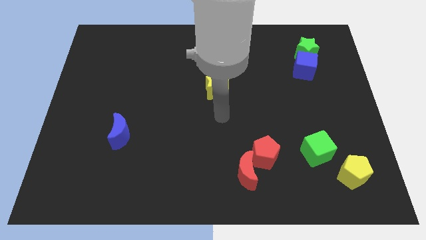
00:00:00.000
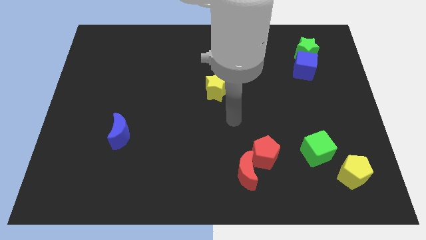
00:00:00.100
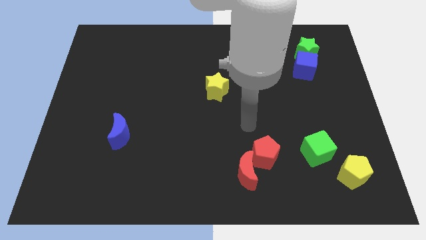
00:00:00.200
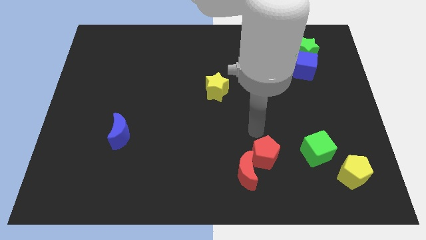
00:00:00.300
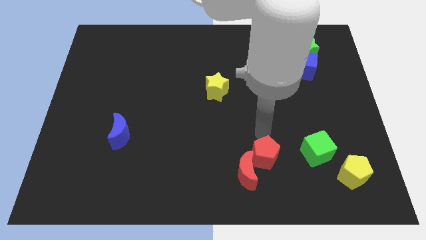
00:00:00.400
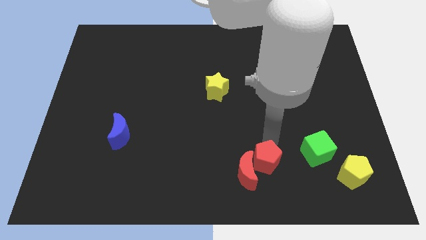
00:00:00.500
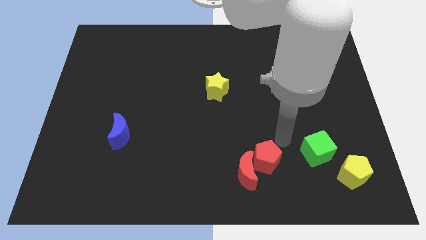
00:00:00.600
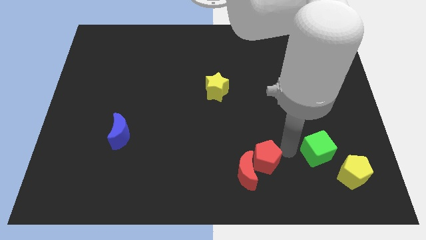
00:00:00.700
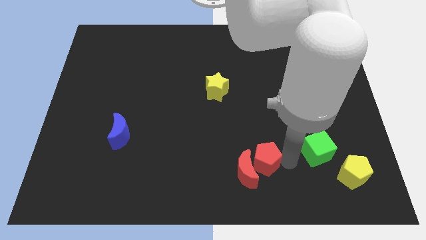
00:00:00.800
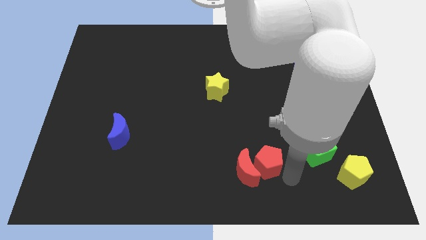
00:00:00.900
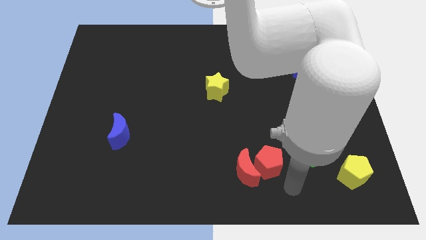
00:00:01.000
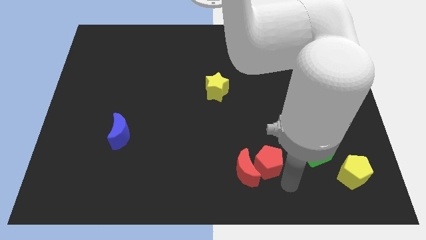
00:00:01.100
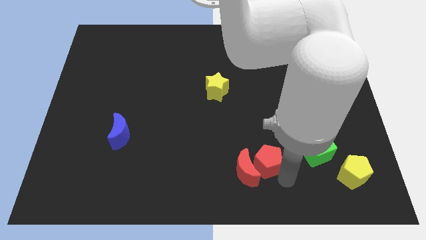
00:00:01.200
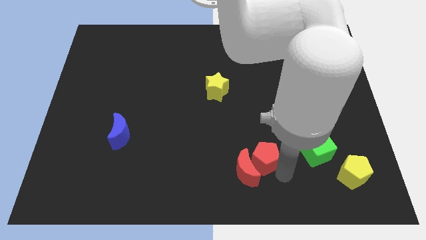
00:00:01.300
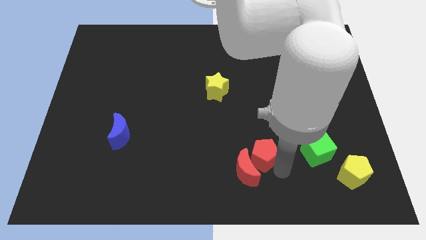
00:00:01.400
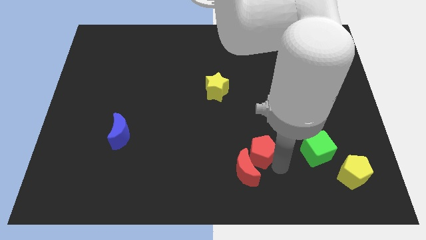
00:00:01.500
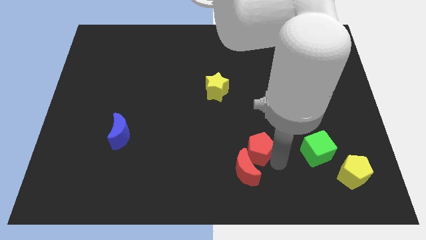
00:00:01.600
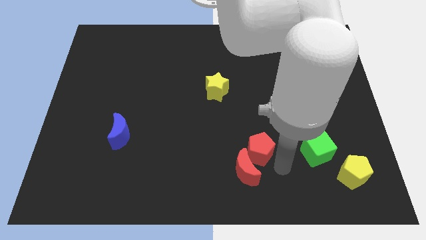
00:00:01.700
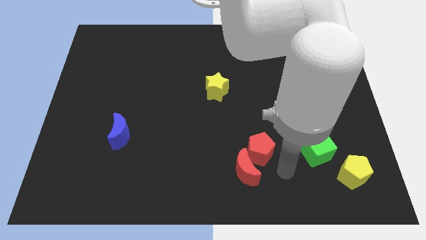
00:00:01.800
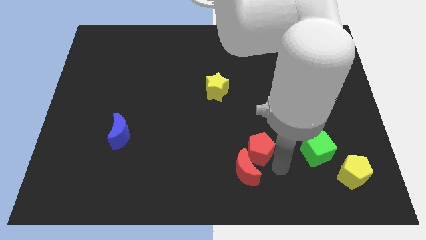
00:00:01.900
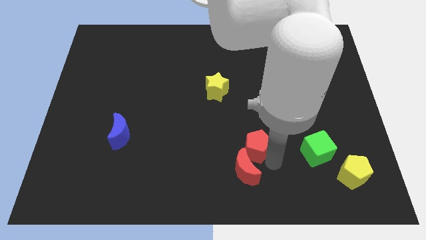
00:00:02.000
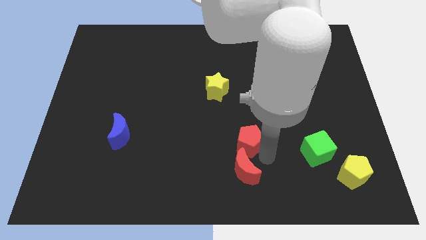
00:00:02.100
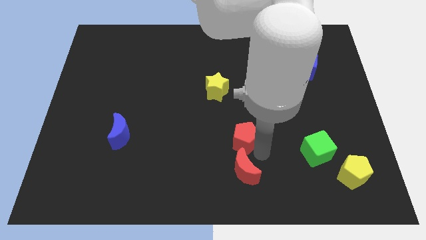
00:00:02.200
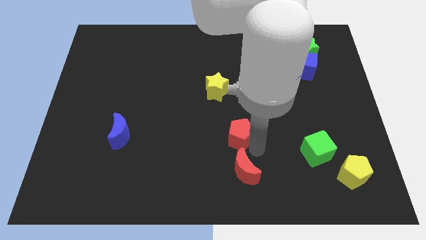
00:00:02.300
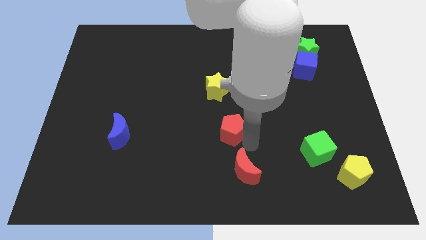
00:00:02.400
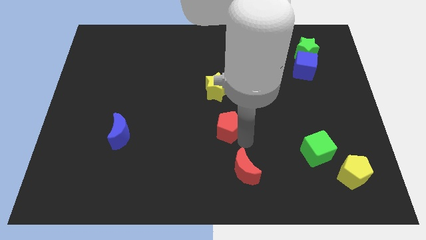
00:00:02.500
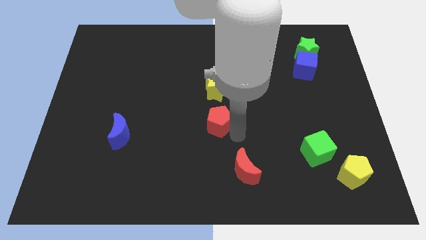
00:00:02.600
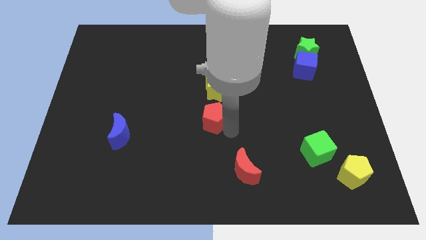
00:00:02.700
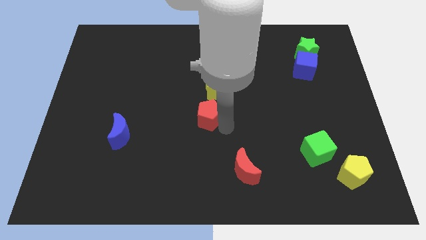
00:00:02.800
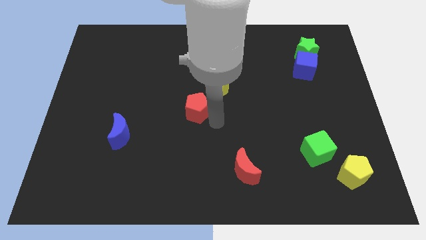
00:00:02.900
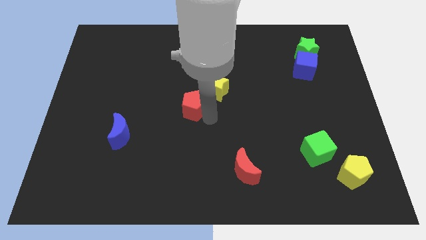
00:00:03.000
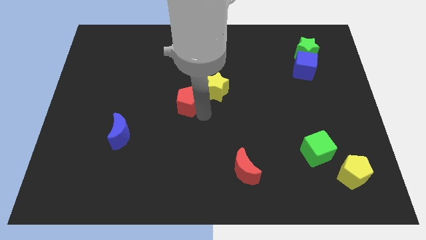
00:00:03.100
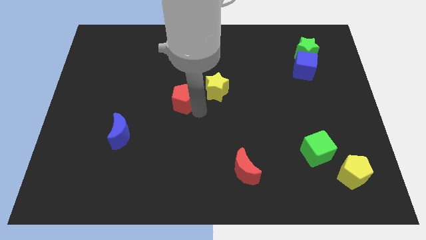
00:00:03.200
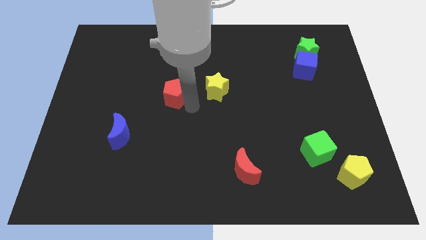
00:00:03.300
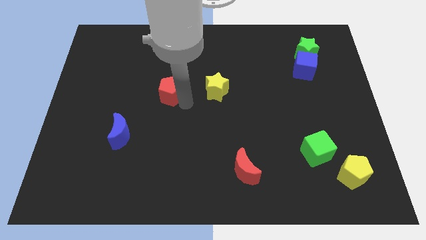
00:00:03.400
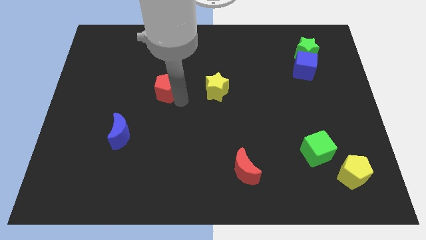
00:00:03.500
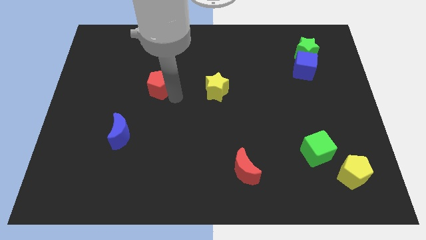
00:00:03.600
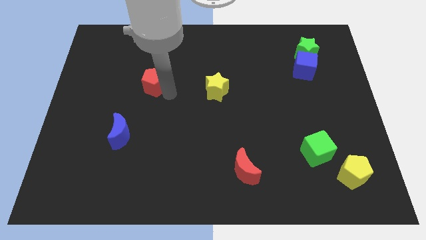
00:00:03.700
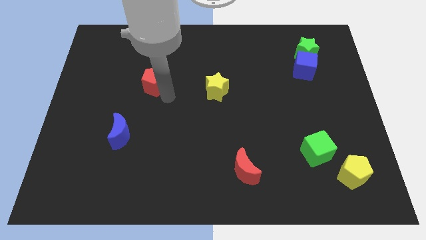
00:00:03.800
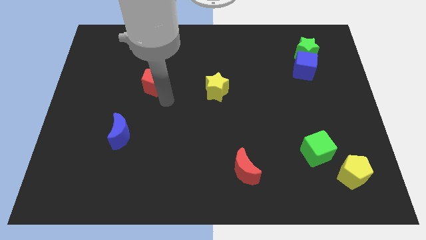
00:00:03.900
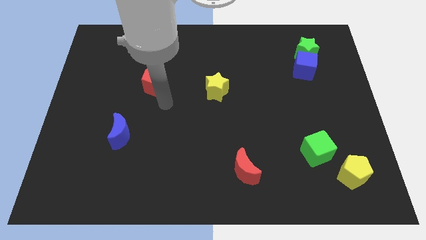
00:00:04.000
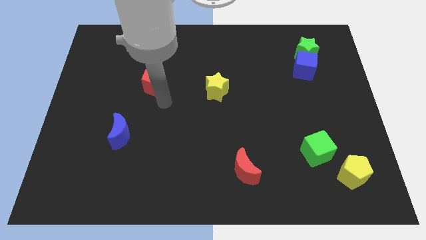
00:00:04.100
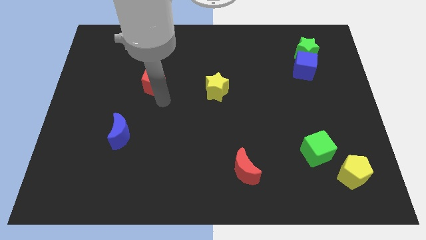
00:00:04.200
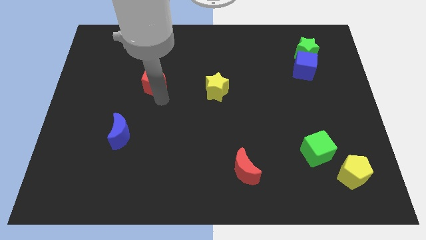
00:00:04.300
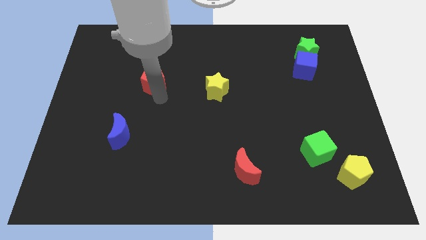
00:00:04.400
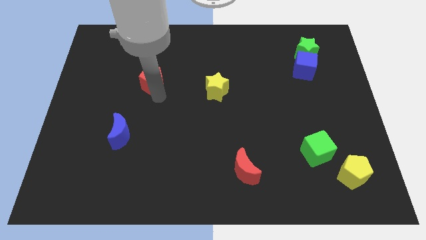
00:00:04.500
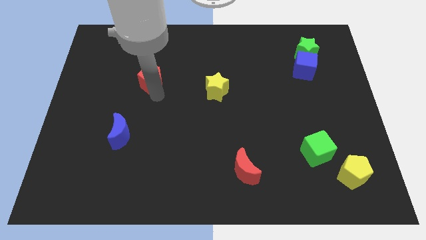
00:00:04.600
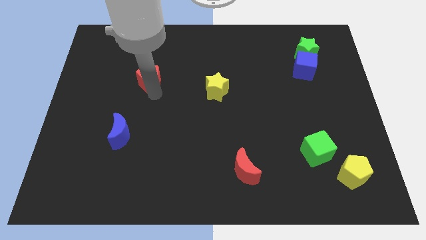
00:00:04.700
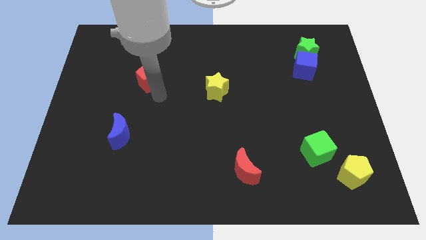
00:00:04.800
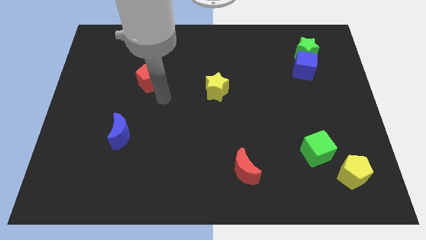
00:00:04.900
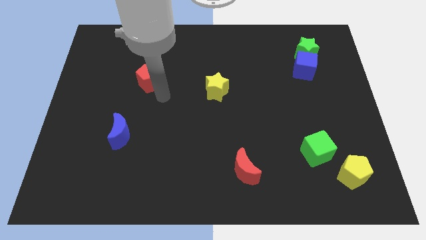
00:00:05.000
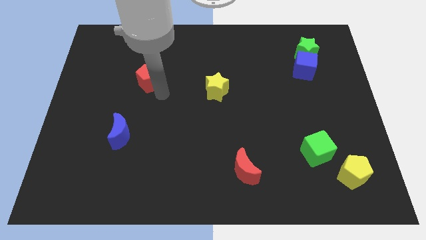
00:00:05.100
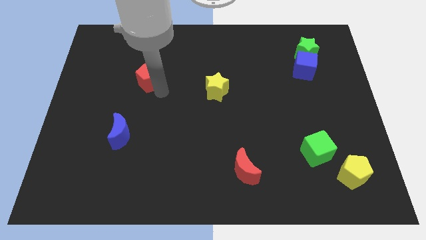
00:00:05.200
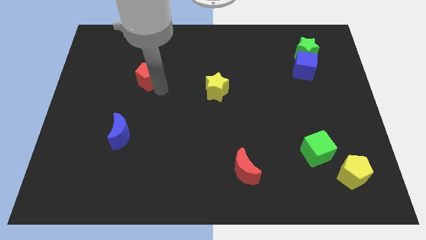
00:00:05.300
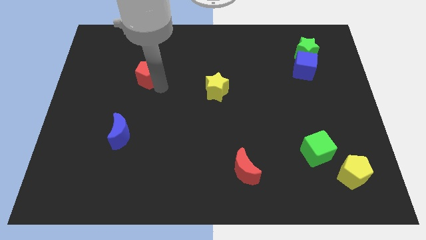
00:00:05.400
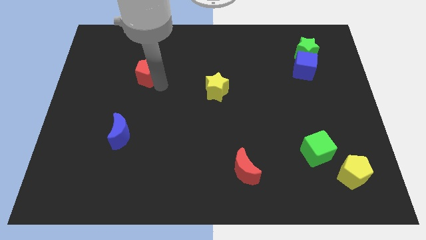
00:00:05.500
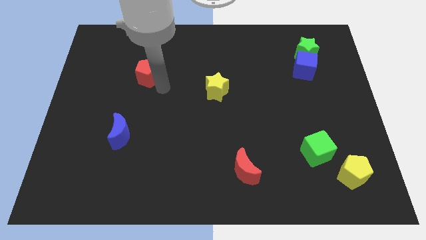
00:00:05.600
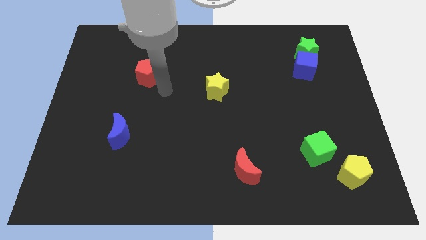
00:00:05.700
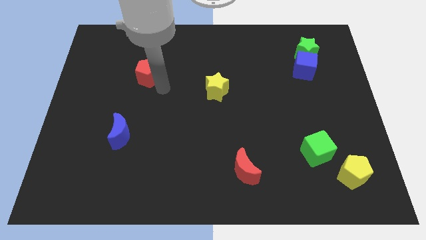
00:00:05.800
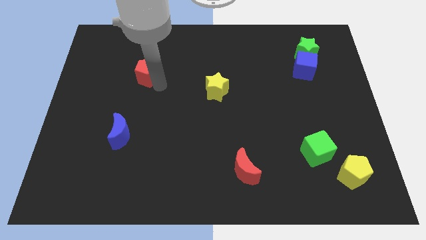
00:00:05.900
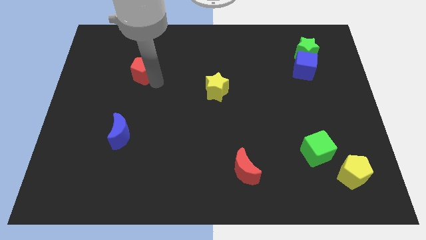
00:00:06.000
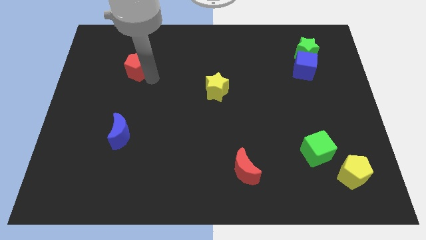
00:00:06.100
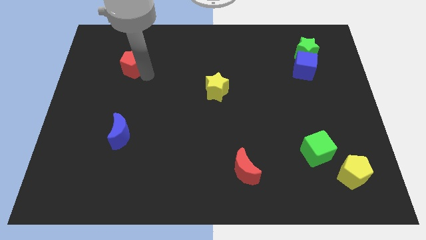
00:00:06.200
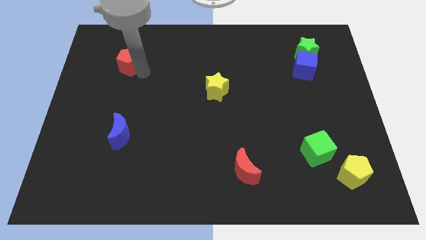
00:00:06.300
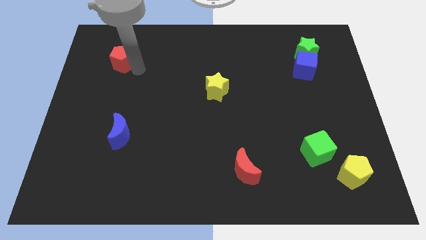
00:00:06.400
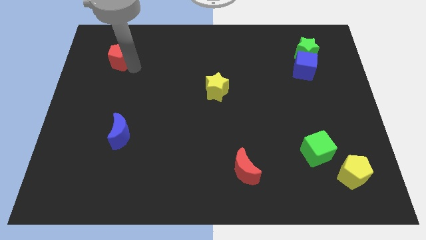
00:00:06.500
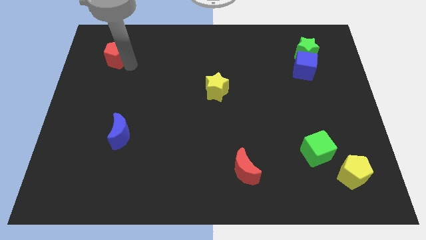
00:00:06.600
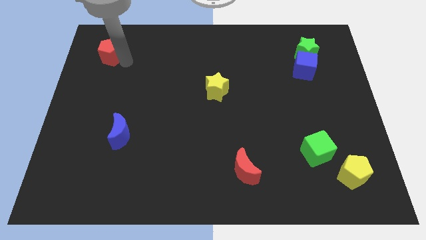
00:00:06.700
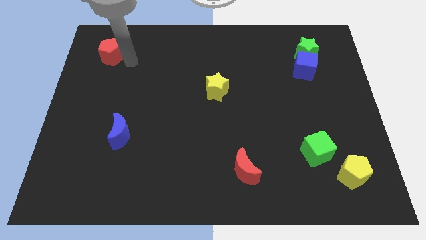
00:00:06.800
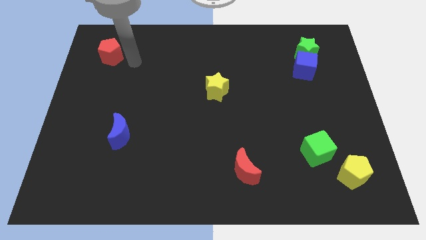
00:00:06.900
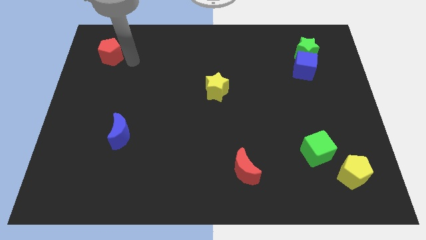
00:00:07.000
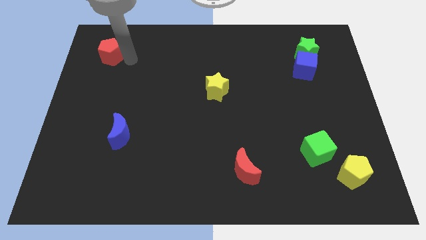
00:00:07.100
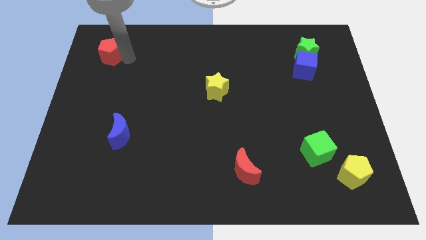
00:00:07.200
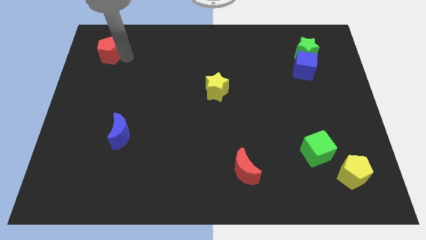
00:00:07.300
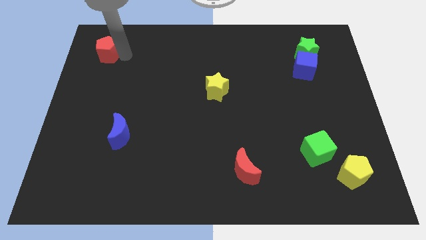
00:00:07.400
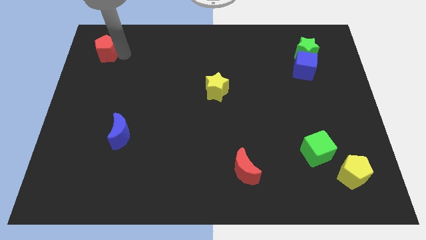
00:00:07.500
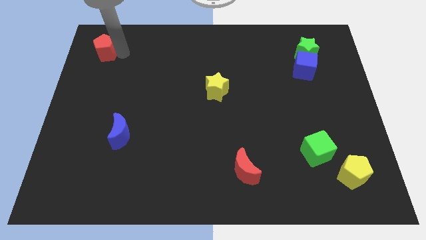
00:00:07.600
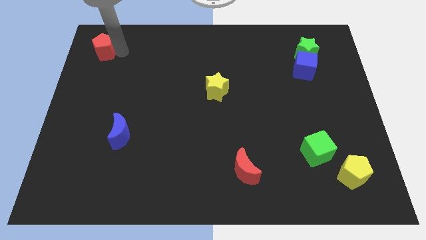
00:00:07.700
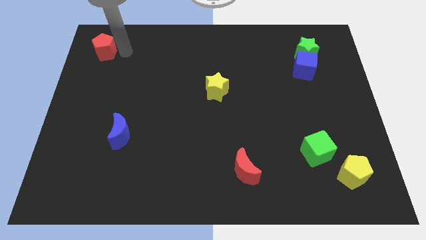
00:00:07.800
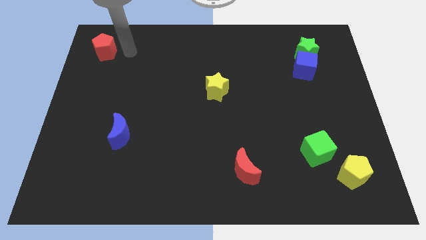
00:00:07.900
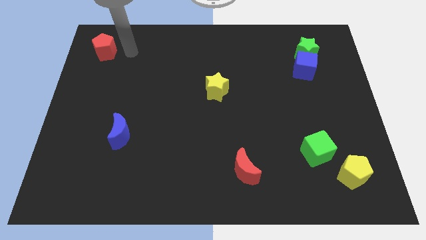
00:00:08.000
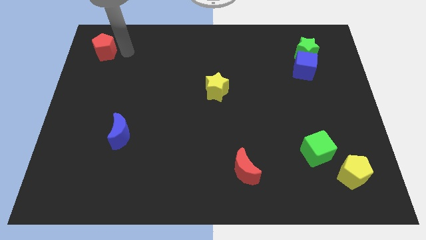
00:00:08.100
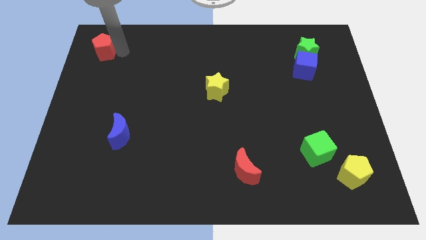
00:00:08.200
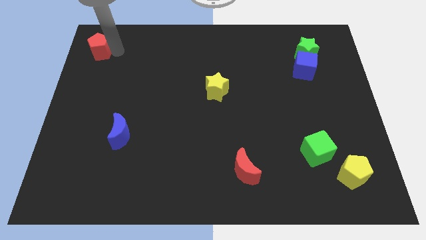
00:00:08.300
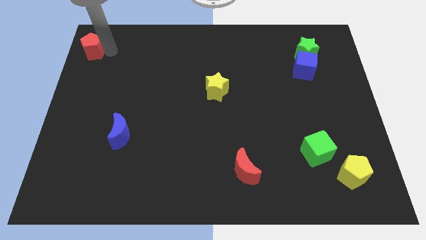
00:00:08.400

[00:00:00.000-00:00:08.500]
push the red pentagon to the top left corner
